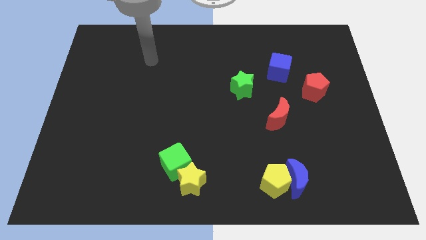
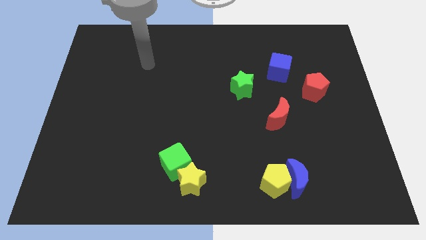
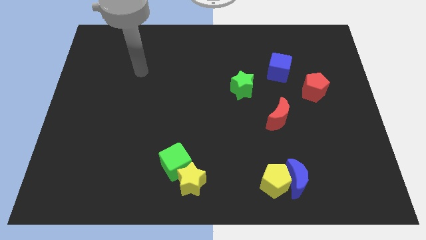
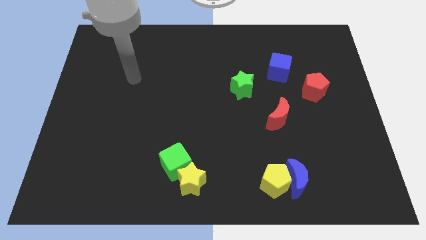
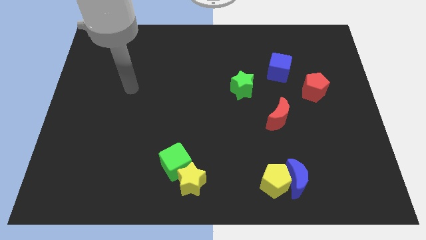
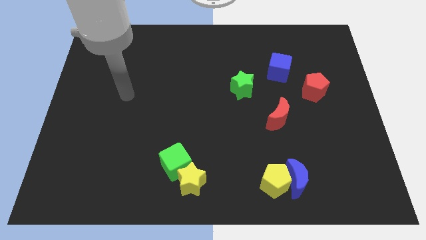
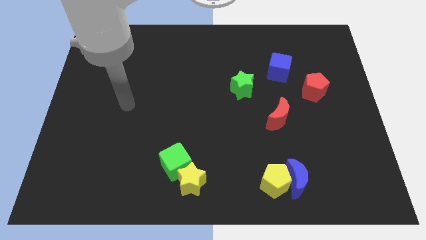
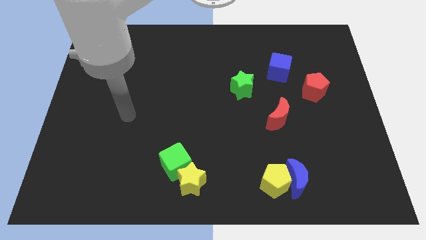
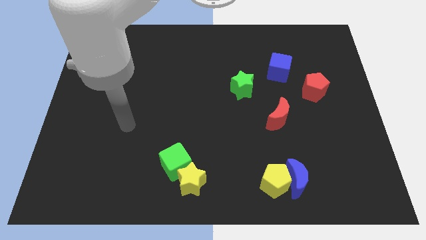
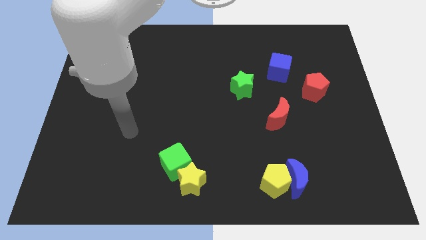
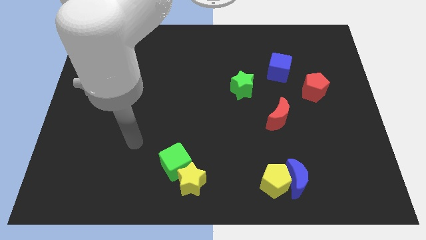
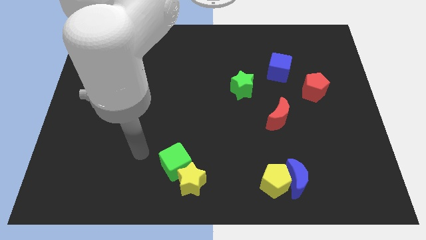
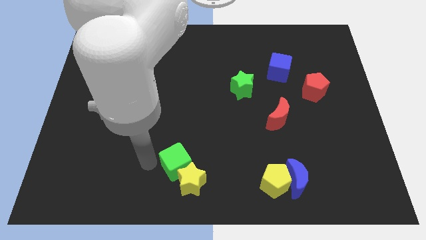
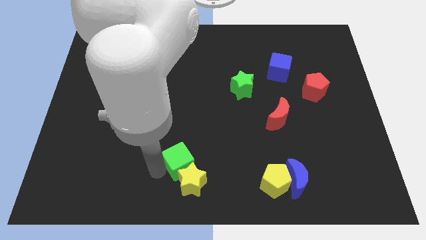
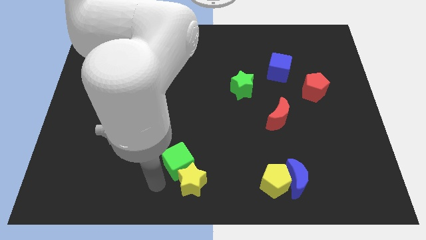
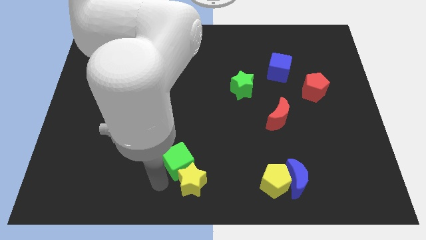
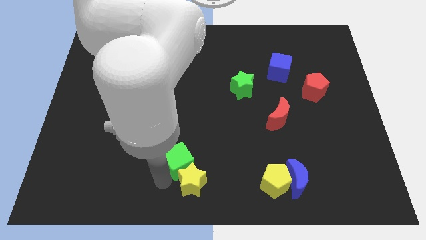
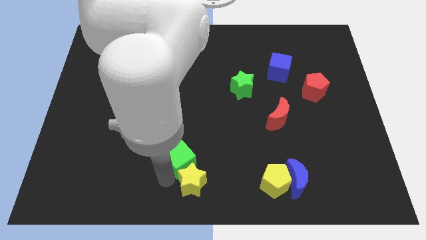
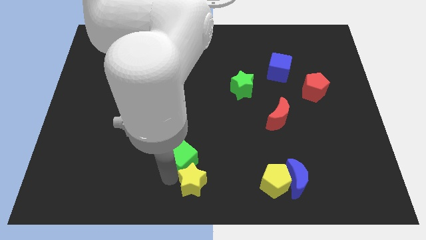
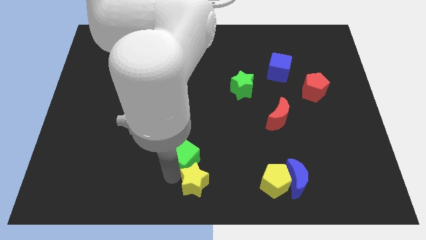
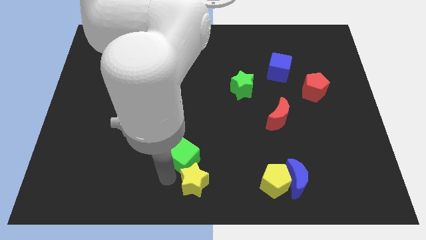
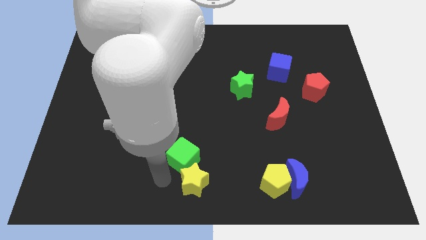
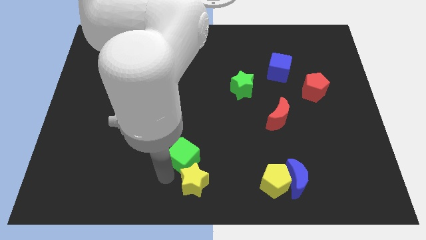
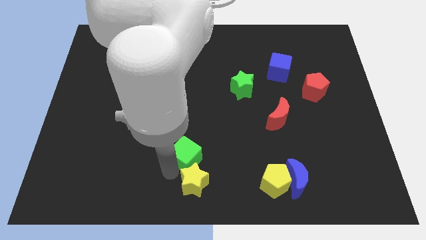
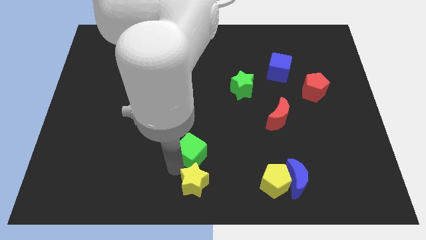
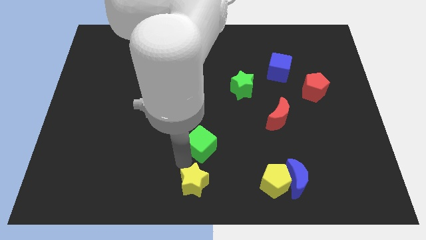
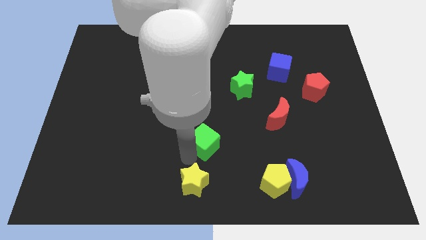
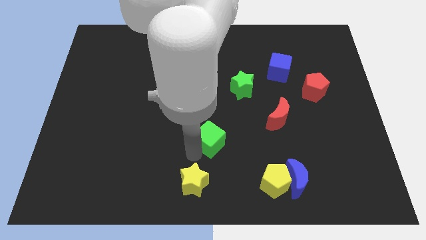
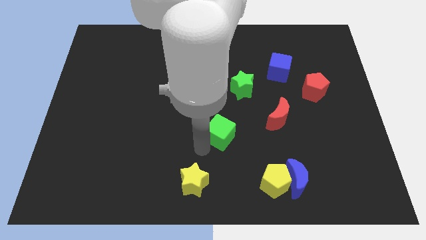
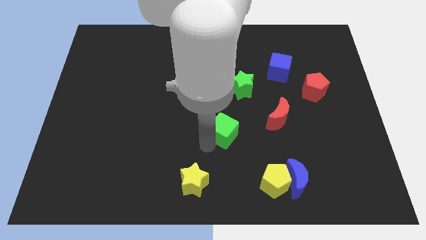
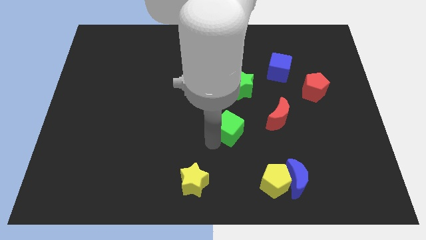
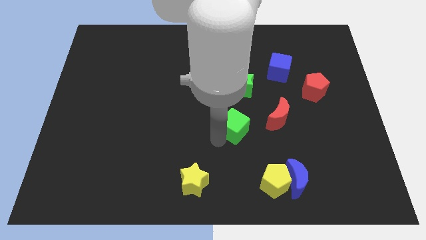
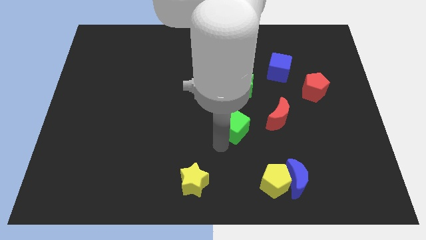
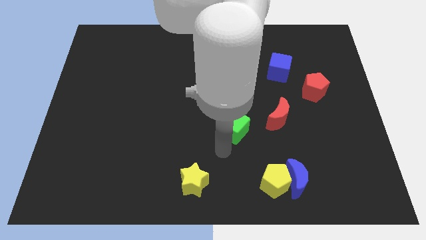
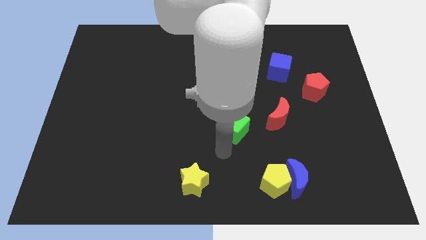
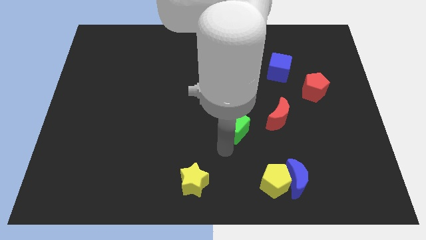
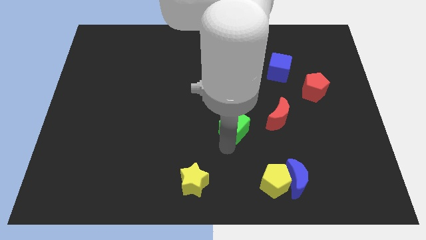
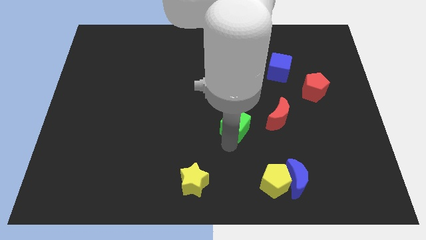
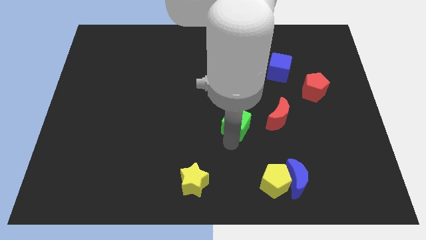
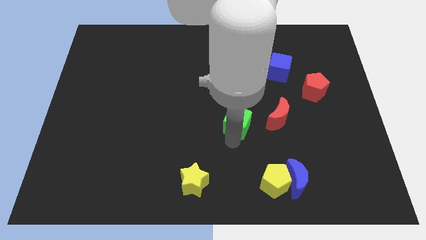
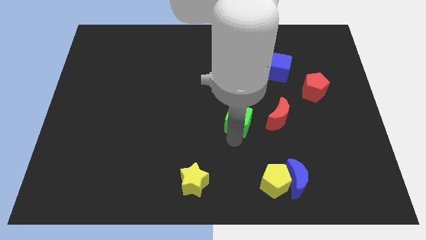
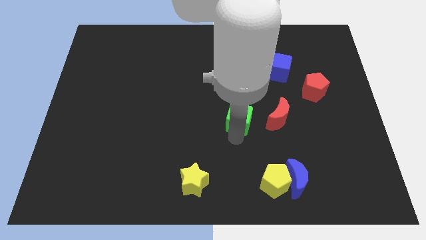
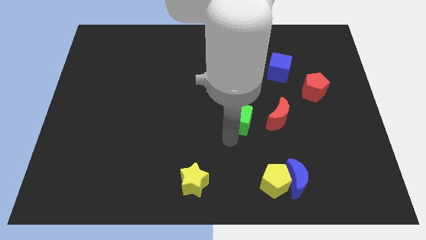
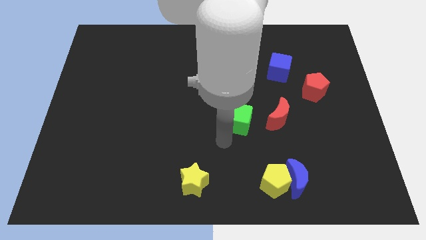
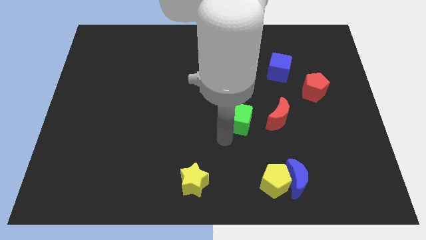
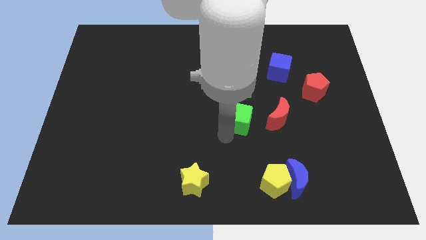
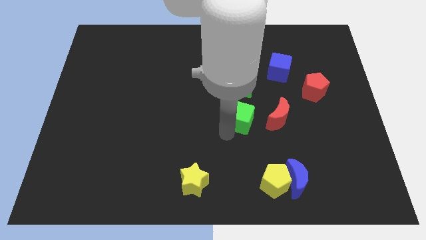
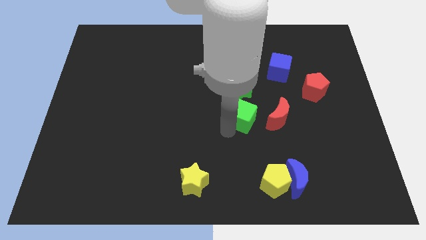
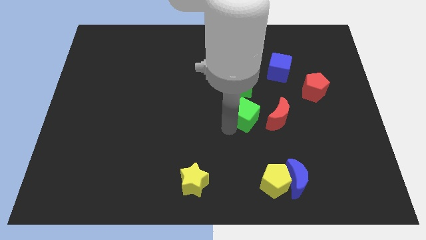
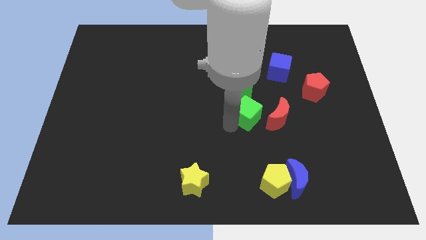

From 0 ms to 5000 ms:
push the green cube diagonally up and to the left of the red moon

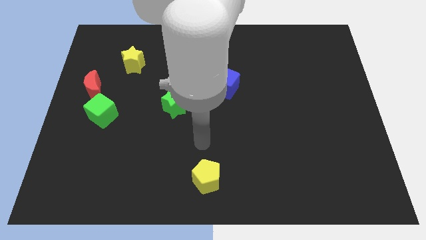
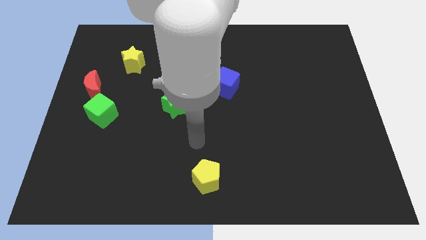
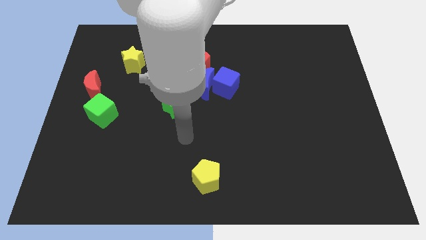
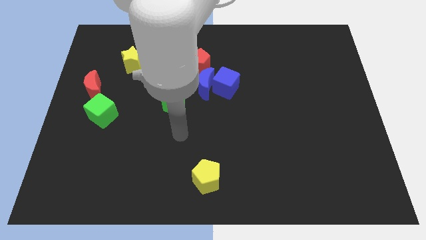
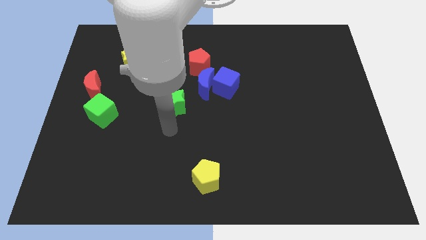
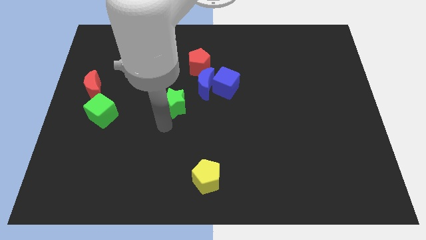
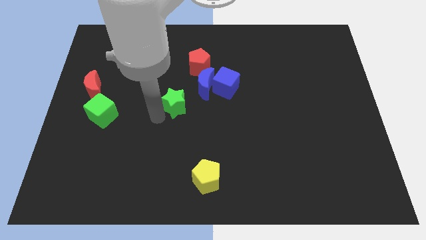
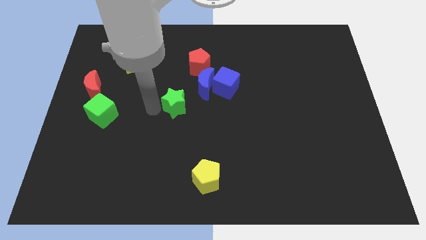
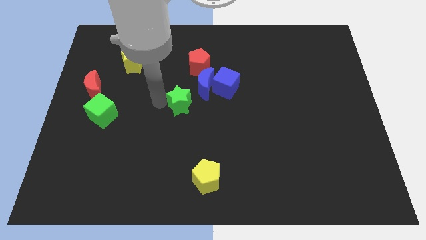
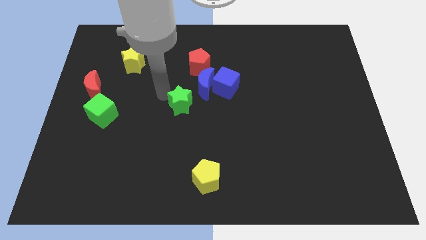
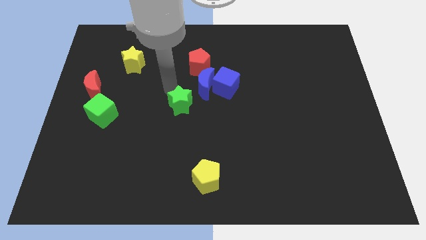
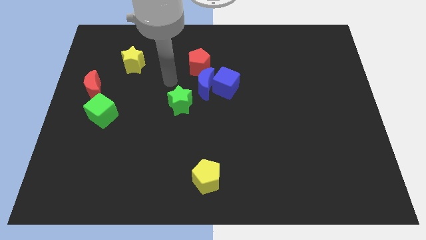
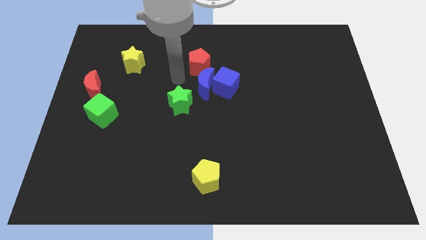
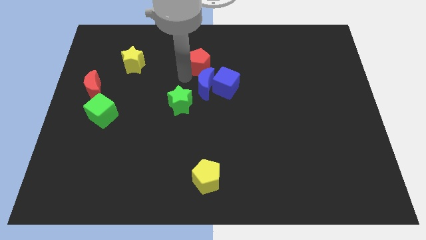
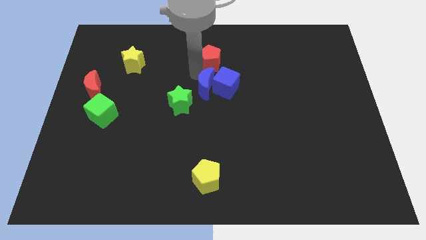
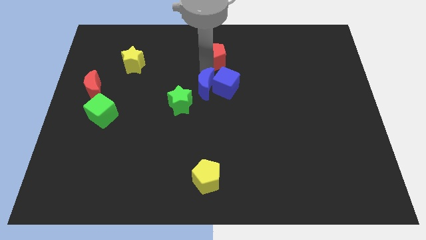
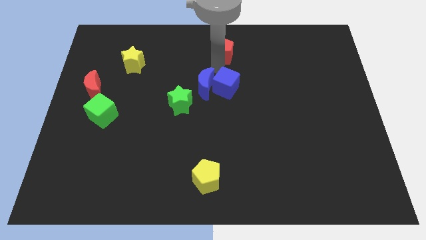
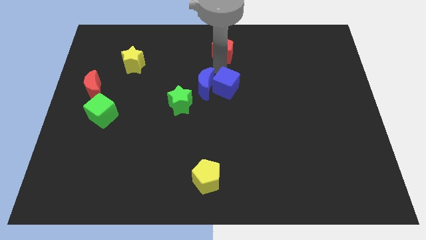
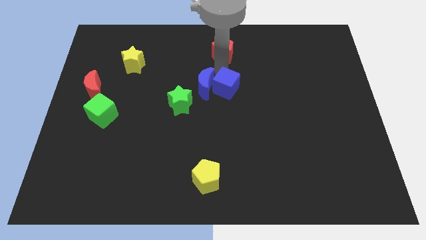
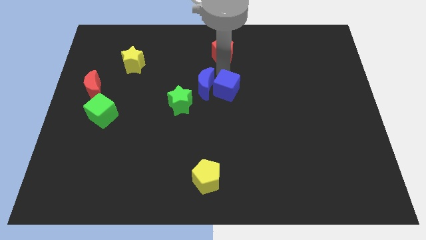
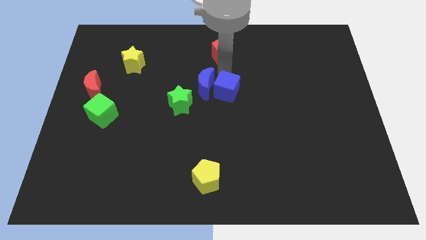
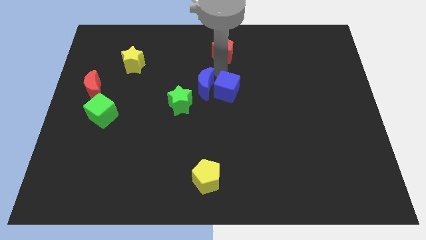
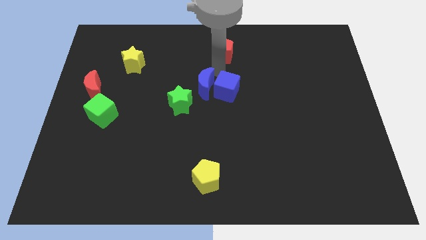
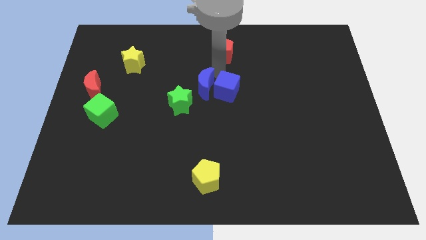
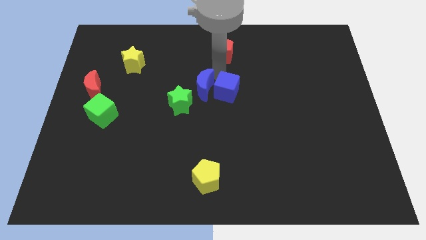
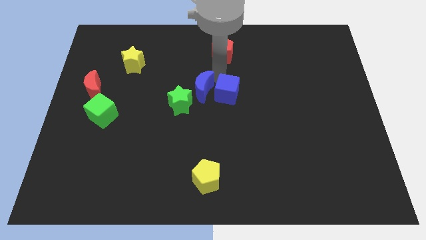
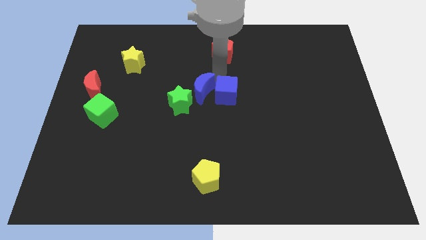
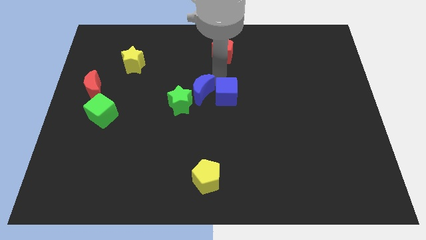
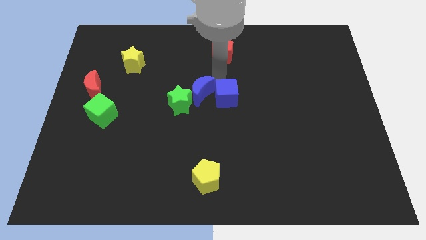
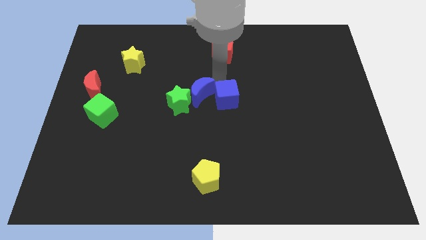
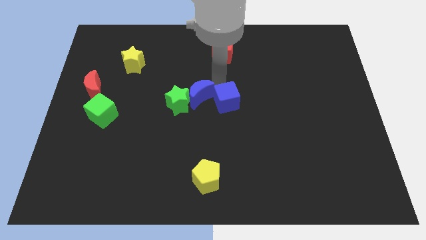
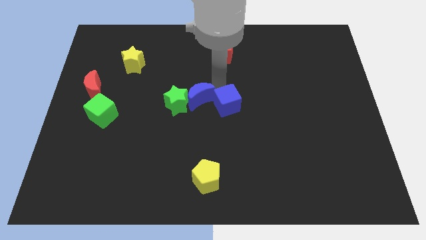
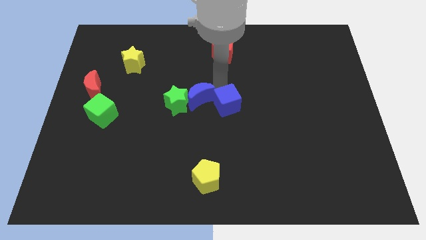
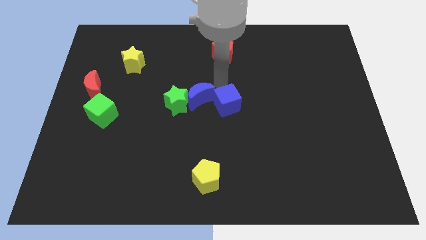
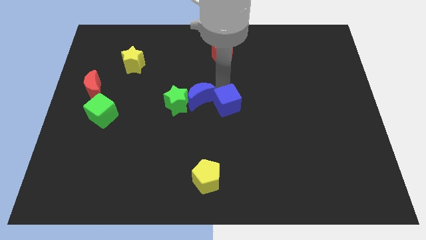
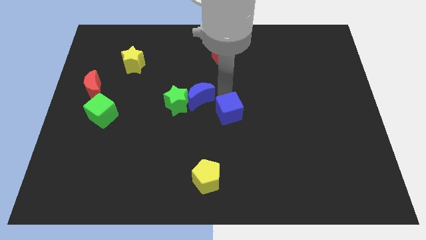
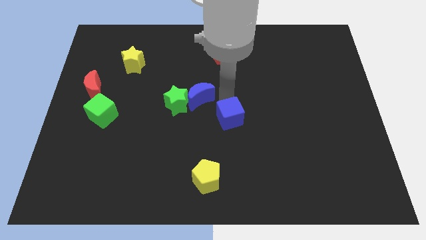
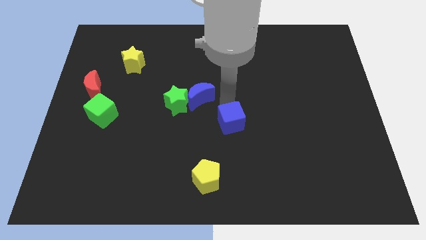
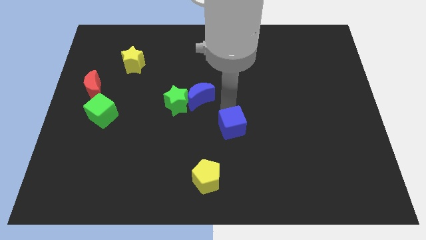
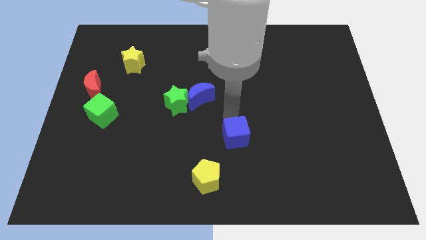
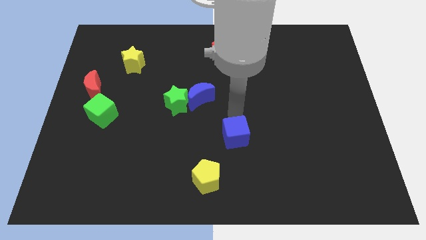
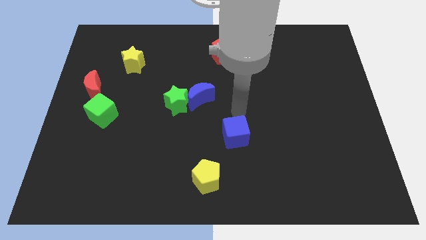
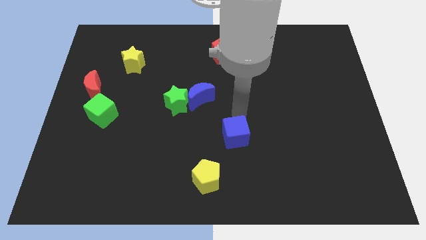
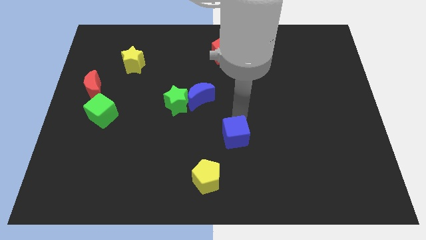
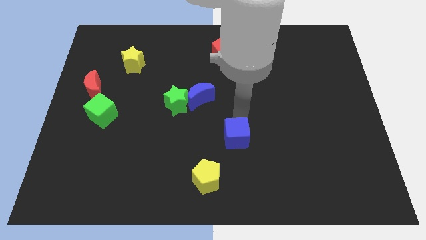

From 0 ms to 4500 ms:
put the blue cube diagonally up and to the right of the yellow pentagon
